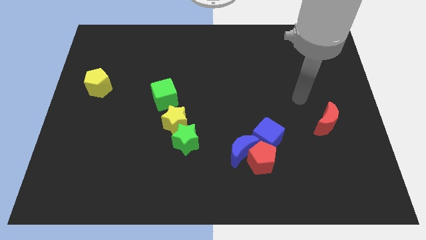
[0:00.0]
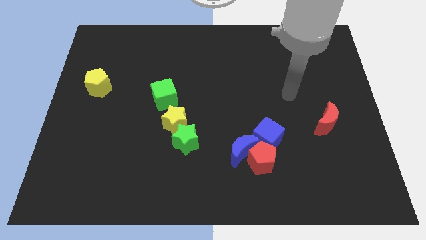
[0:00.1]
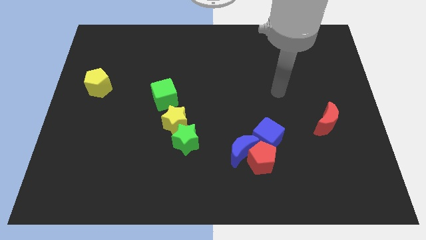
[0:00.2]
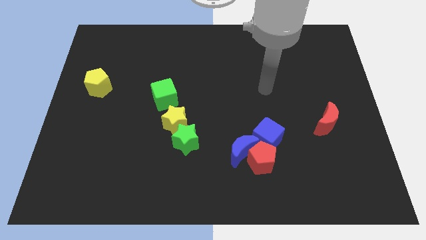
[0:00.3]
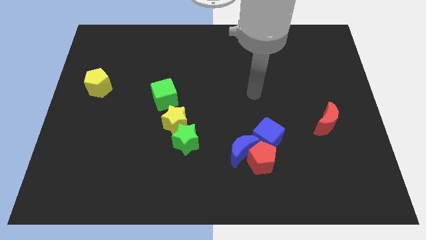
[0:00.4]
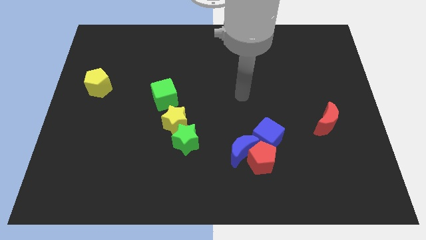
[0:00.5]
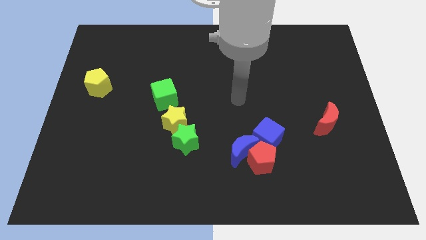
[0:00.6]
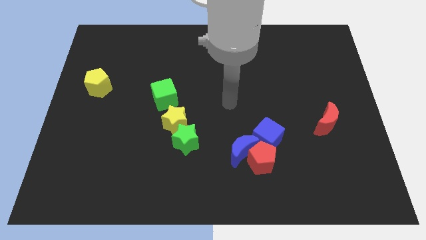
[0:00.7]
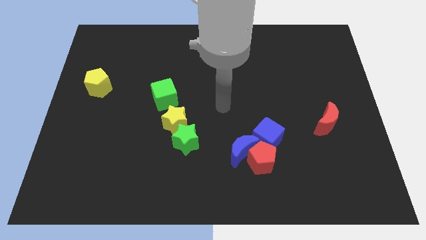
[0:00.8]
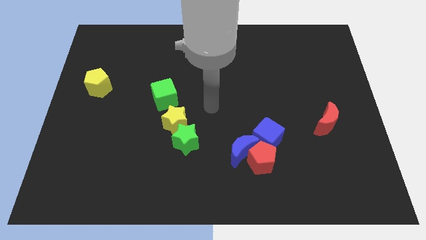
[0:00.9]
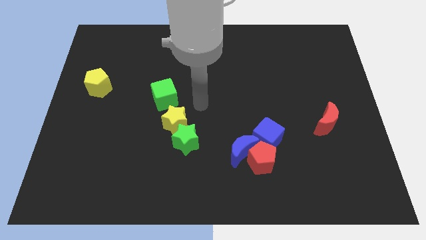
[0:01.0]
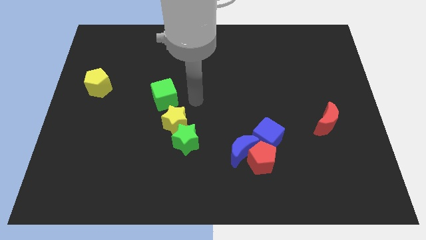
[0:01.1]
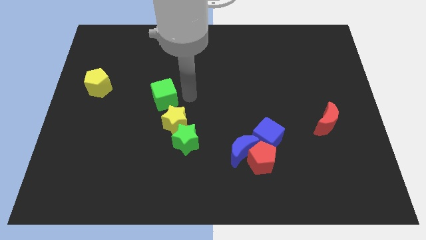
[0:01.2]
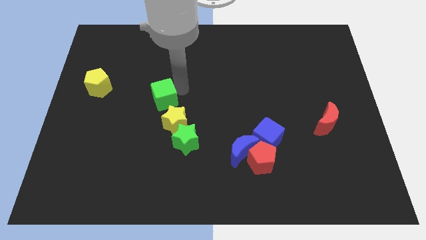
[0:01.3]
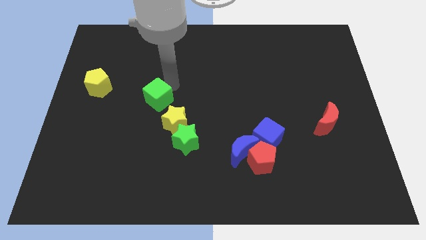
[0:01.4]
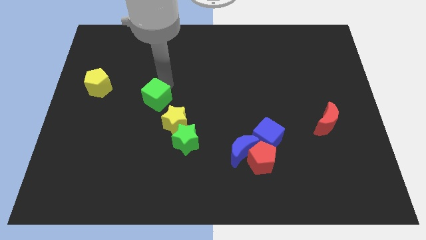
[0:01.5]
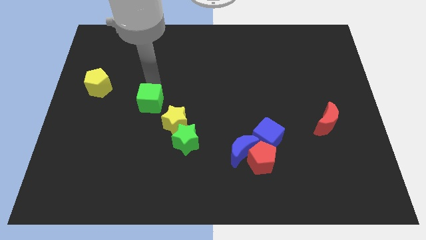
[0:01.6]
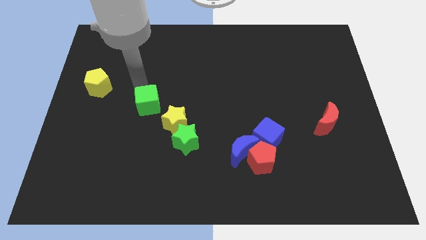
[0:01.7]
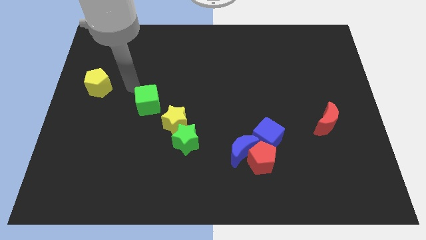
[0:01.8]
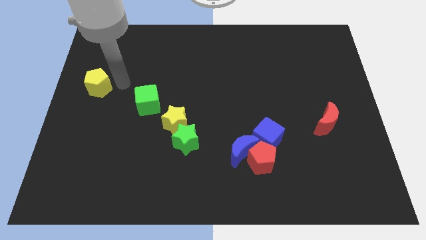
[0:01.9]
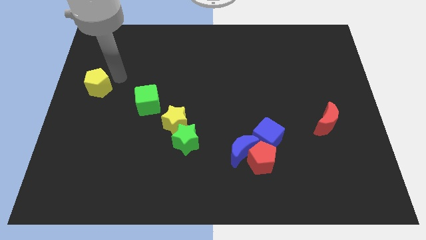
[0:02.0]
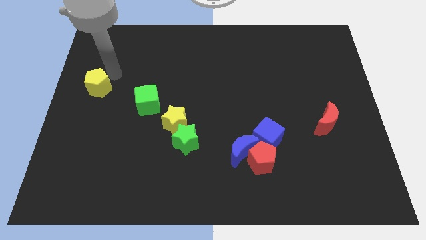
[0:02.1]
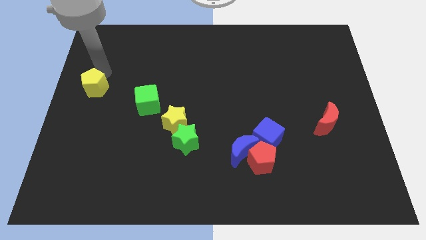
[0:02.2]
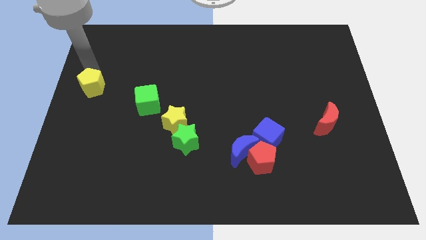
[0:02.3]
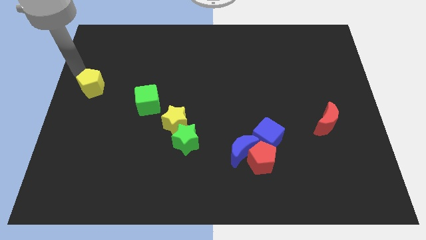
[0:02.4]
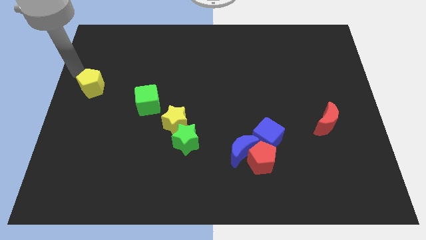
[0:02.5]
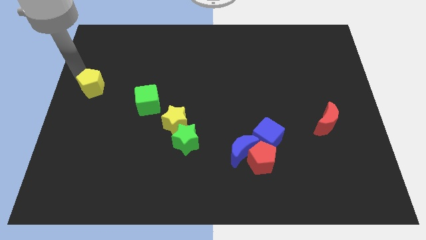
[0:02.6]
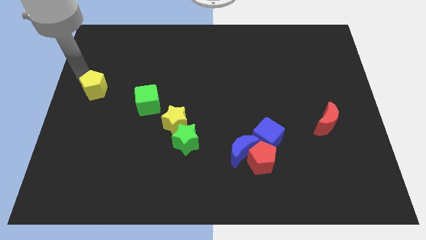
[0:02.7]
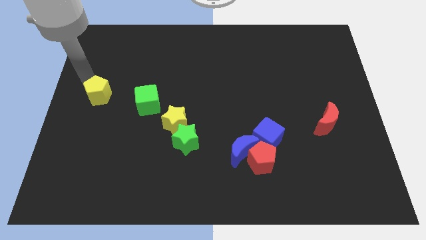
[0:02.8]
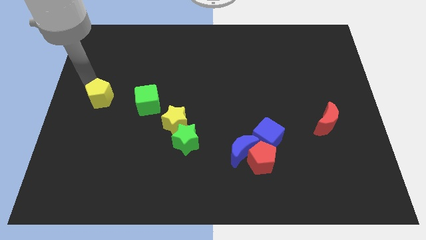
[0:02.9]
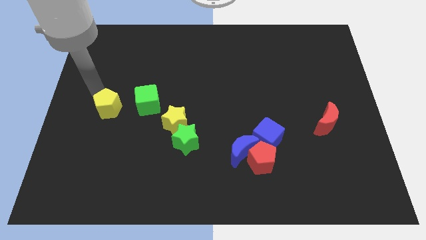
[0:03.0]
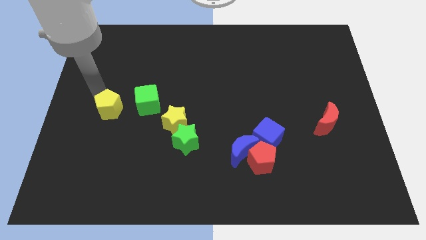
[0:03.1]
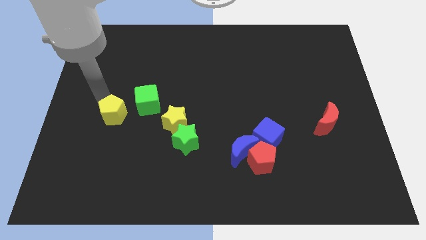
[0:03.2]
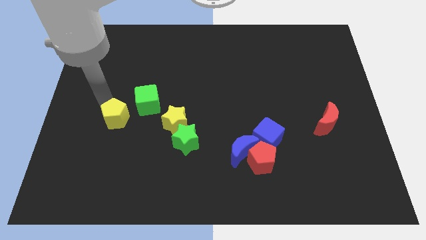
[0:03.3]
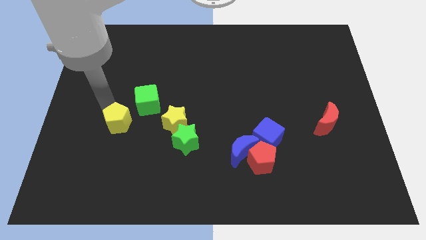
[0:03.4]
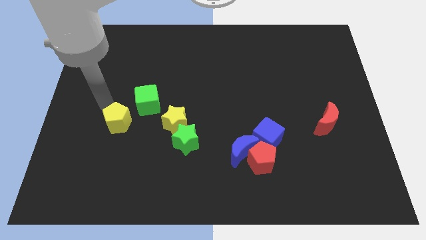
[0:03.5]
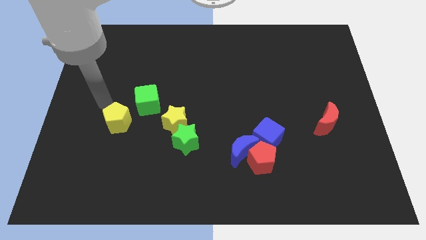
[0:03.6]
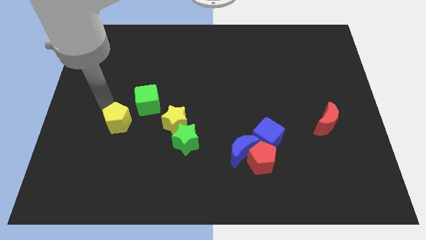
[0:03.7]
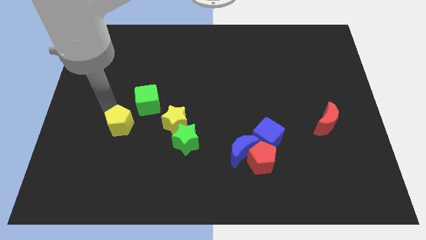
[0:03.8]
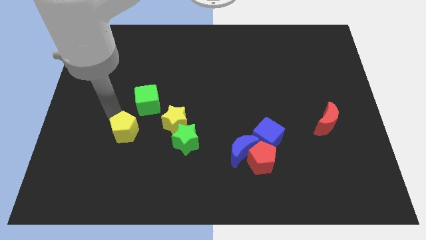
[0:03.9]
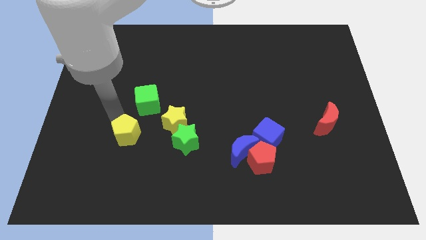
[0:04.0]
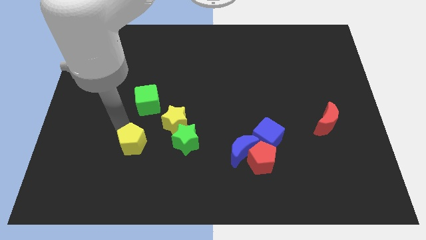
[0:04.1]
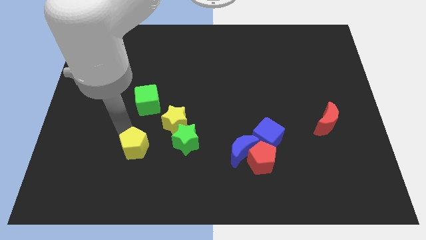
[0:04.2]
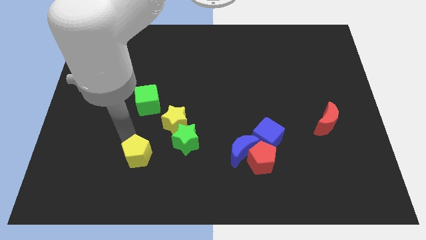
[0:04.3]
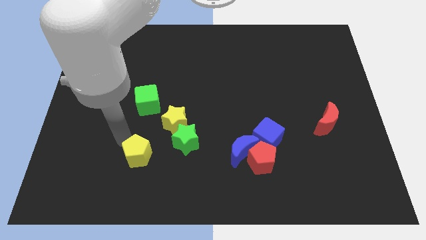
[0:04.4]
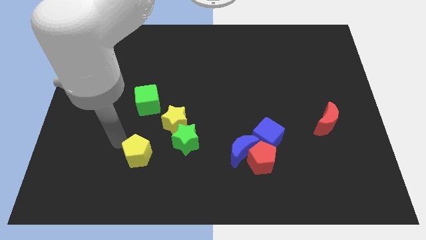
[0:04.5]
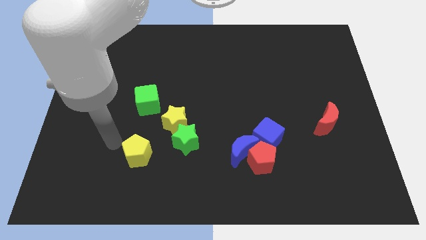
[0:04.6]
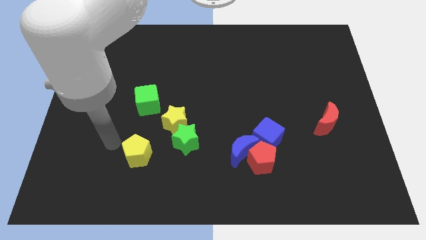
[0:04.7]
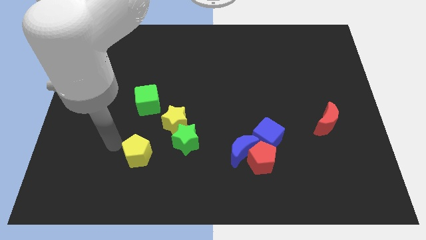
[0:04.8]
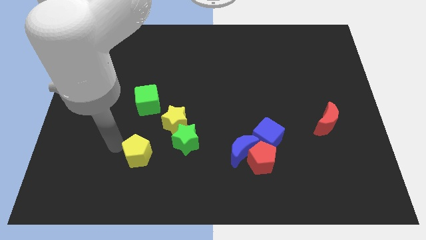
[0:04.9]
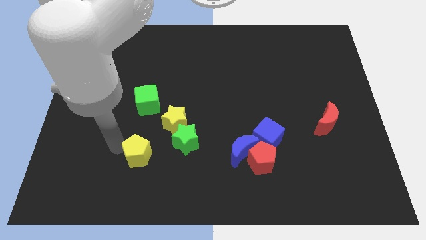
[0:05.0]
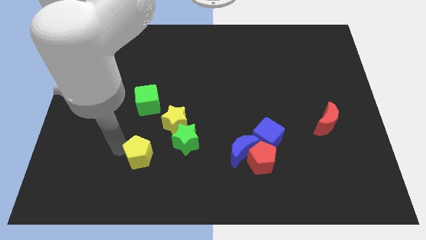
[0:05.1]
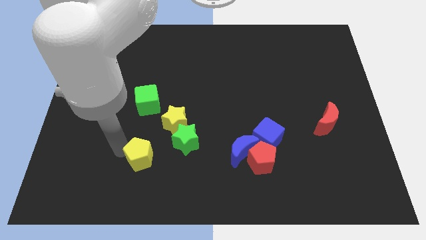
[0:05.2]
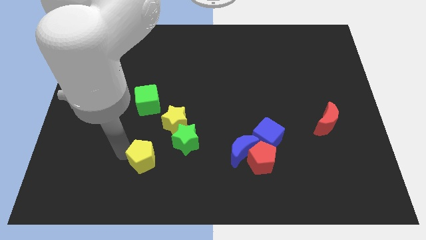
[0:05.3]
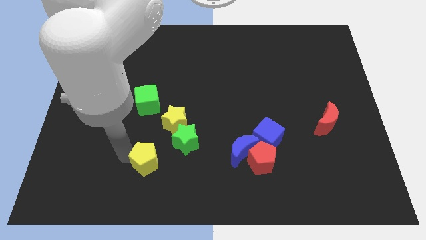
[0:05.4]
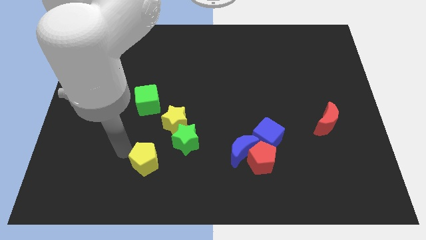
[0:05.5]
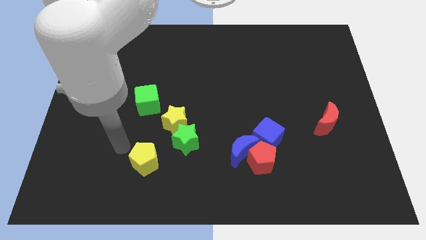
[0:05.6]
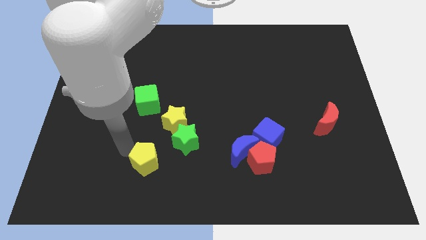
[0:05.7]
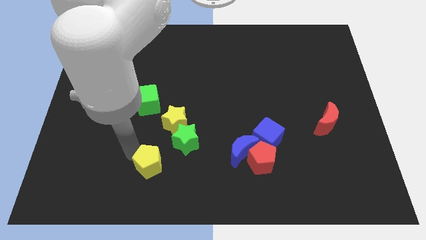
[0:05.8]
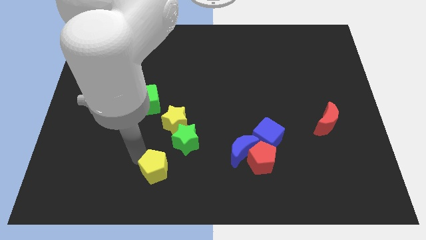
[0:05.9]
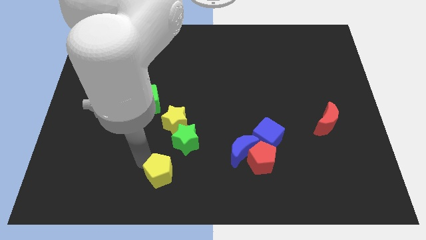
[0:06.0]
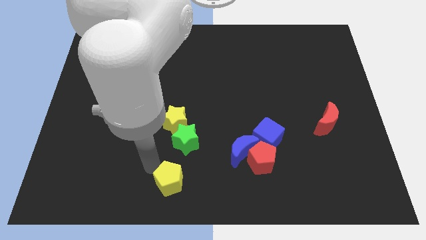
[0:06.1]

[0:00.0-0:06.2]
move the yellow pentagon to the bottom side

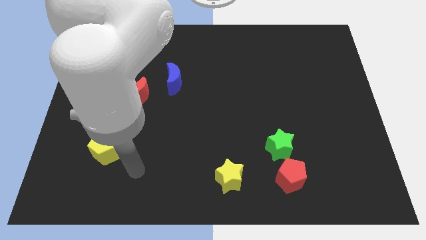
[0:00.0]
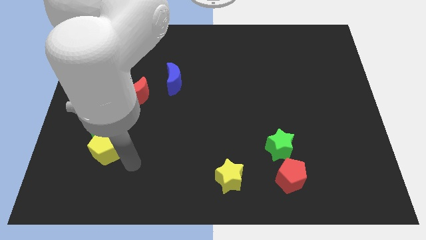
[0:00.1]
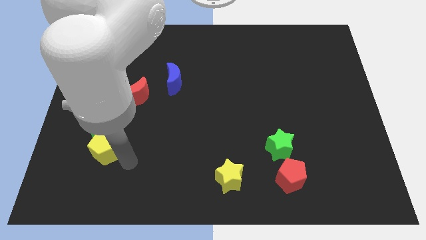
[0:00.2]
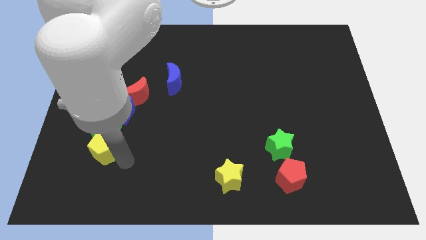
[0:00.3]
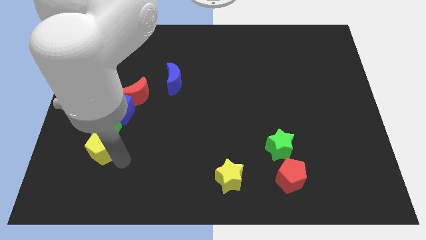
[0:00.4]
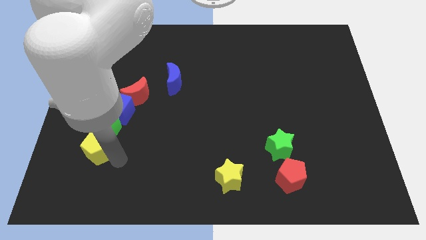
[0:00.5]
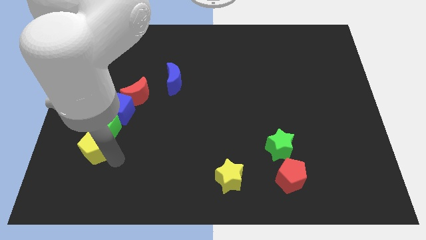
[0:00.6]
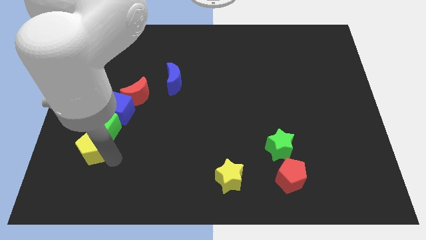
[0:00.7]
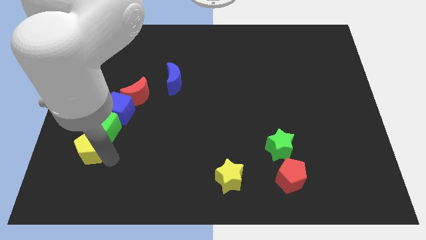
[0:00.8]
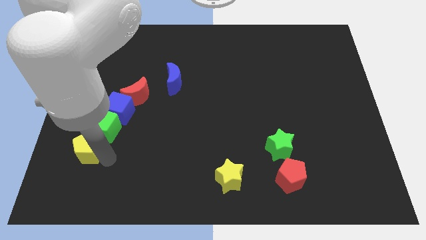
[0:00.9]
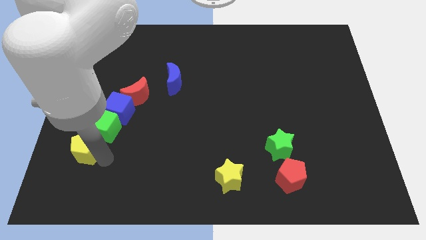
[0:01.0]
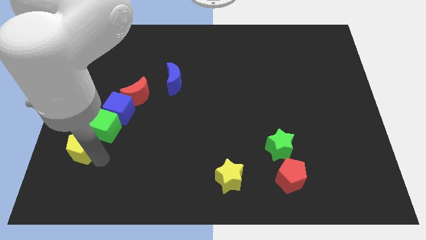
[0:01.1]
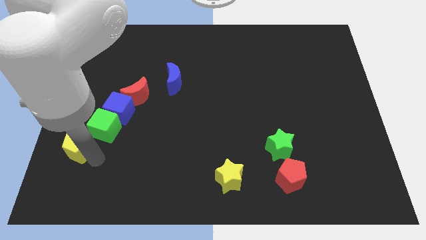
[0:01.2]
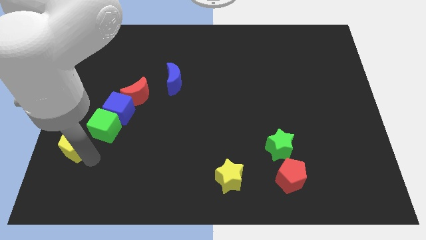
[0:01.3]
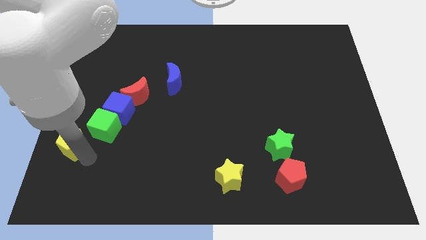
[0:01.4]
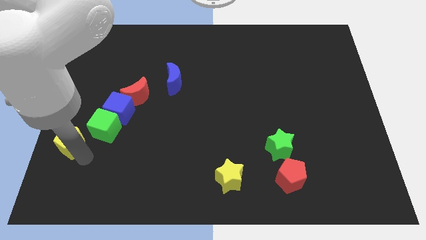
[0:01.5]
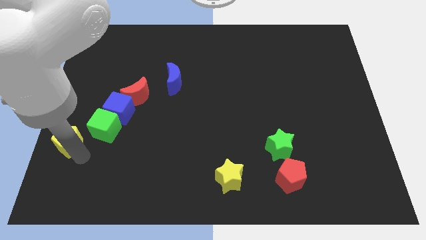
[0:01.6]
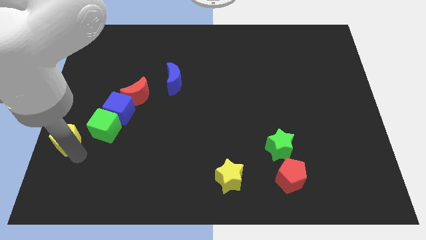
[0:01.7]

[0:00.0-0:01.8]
push the yellow pentagon to the center left
